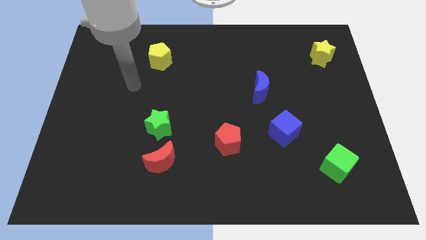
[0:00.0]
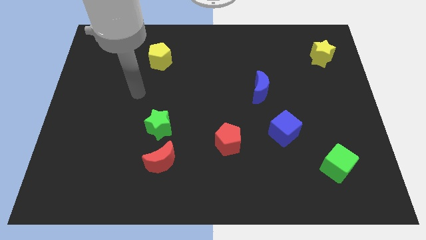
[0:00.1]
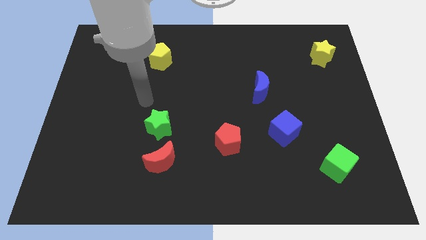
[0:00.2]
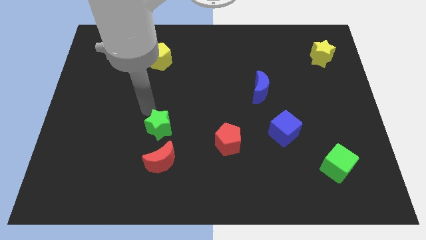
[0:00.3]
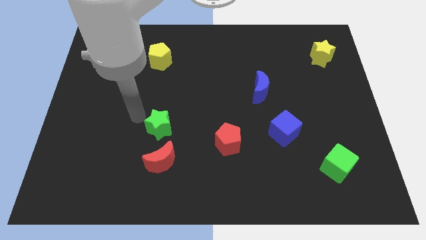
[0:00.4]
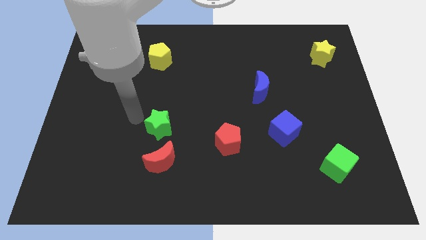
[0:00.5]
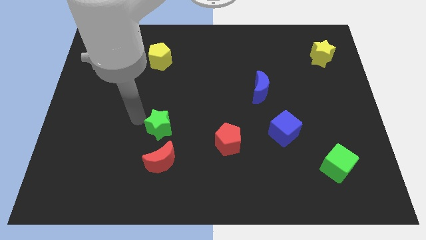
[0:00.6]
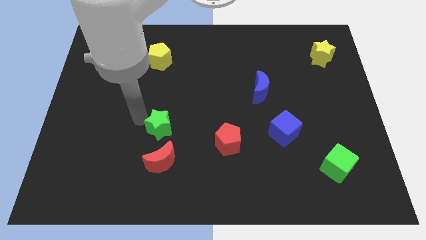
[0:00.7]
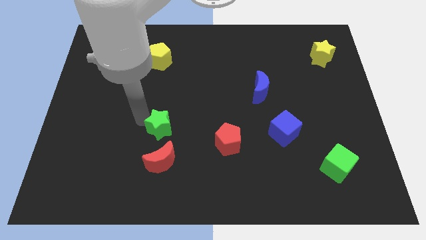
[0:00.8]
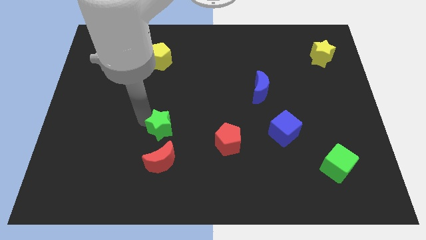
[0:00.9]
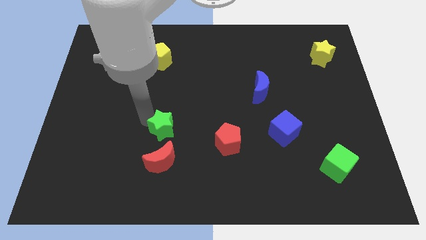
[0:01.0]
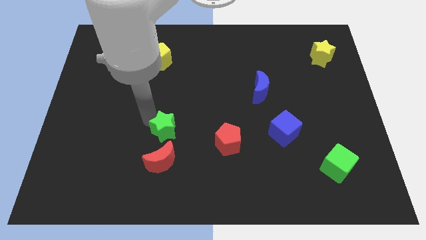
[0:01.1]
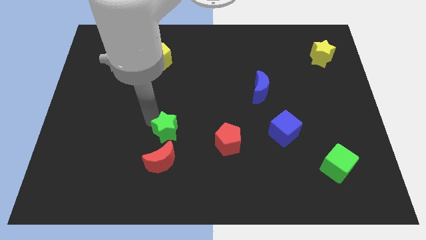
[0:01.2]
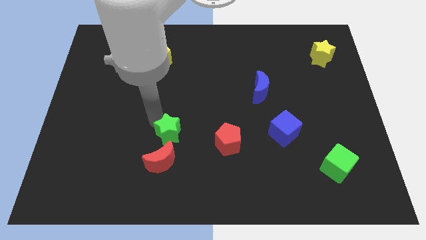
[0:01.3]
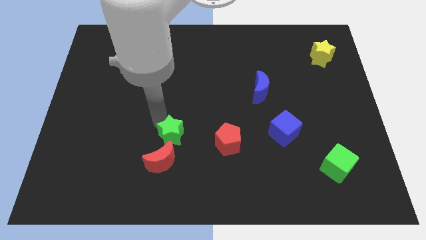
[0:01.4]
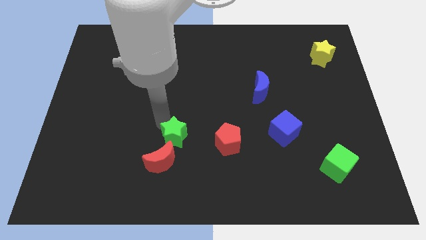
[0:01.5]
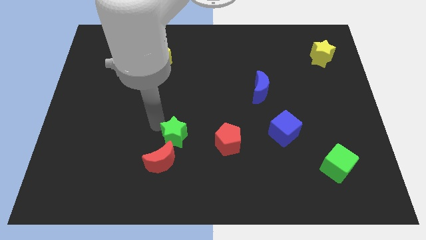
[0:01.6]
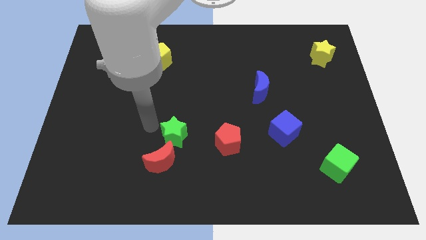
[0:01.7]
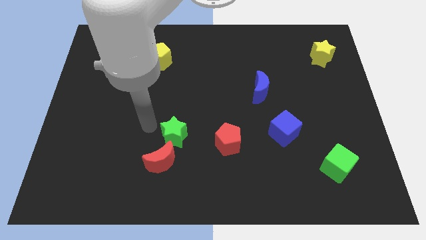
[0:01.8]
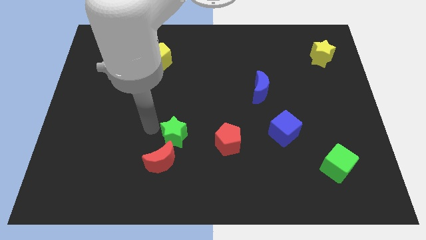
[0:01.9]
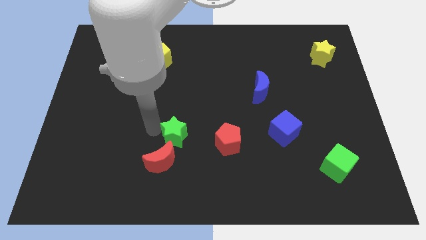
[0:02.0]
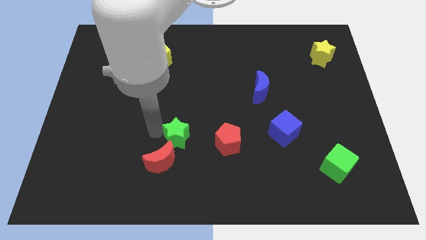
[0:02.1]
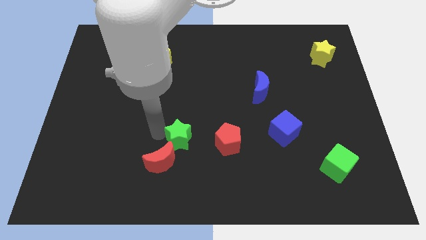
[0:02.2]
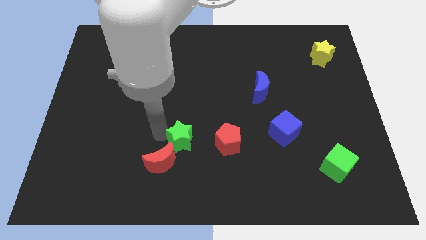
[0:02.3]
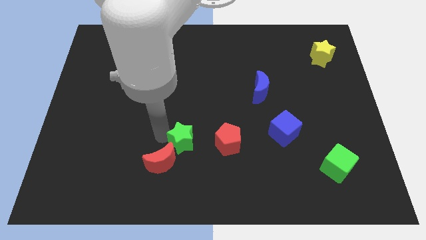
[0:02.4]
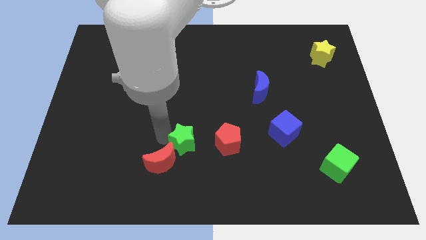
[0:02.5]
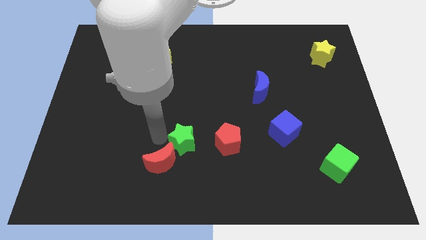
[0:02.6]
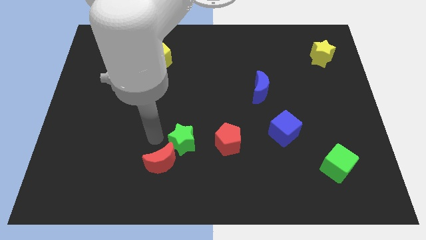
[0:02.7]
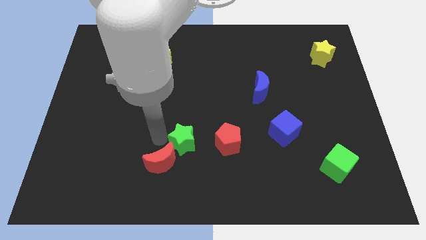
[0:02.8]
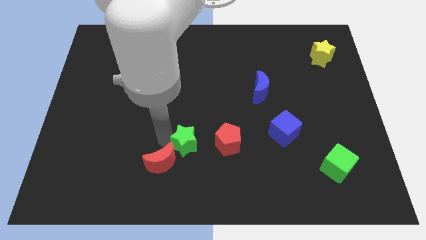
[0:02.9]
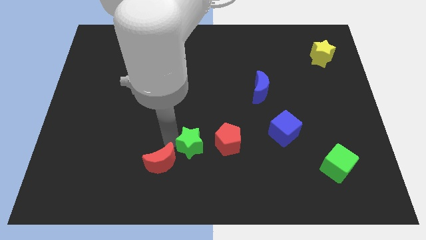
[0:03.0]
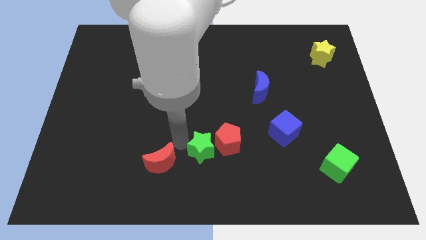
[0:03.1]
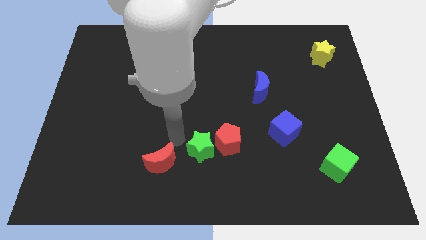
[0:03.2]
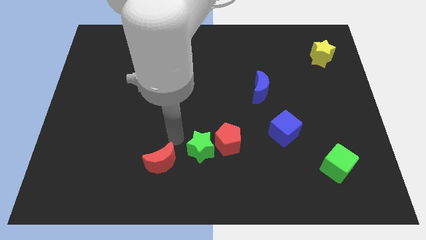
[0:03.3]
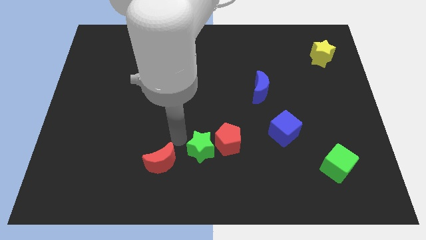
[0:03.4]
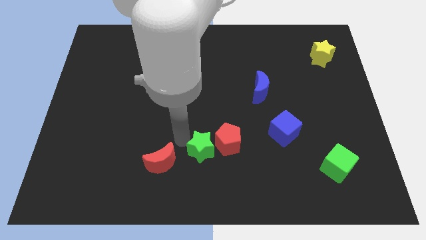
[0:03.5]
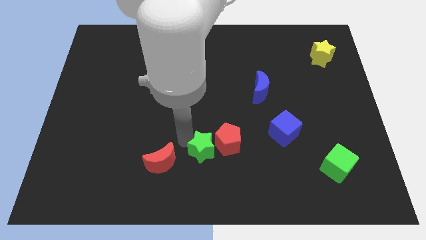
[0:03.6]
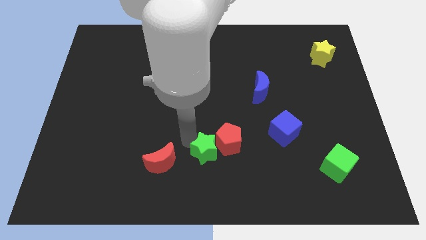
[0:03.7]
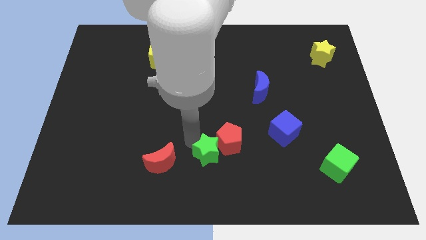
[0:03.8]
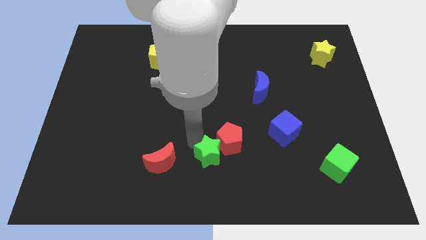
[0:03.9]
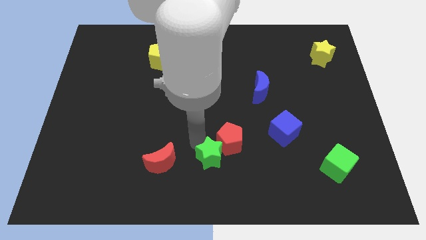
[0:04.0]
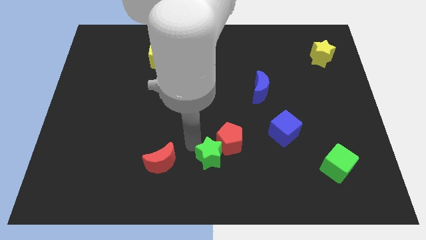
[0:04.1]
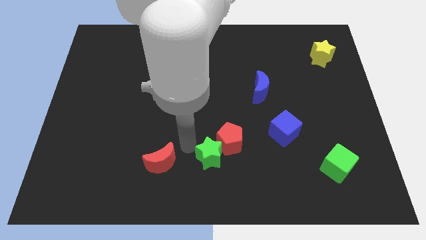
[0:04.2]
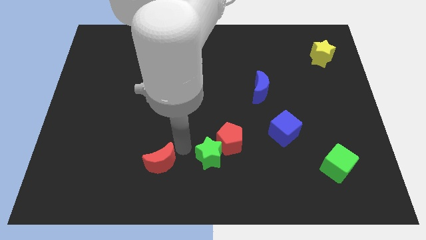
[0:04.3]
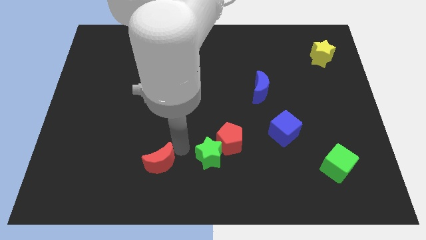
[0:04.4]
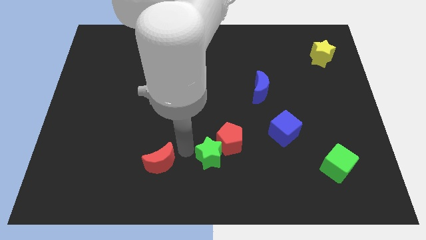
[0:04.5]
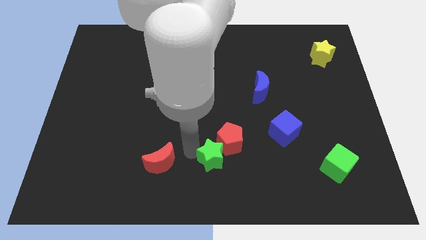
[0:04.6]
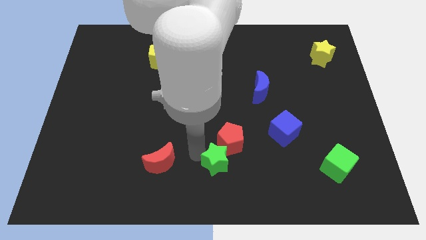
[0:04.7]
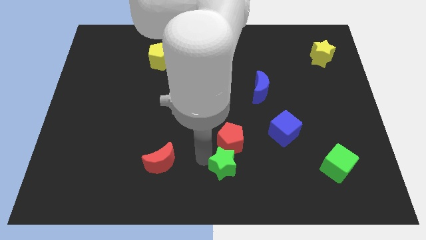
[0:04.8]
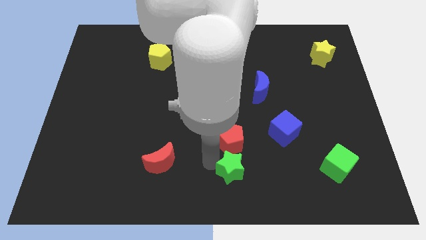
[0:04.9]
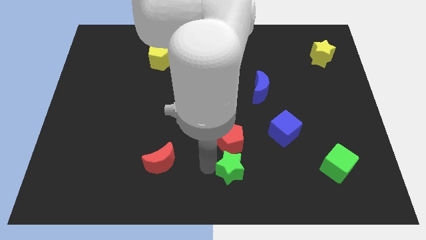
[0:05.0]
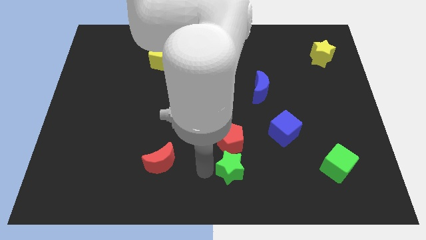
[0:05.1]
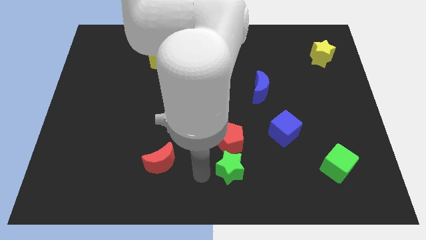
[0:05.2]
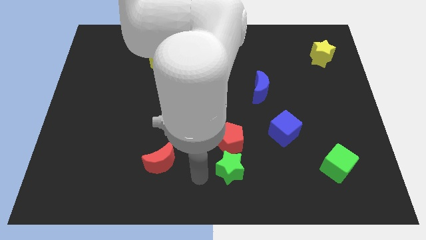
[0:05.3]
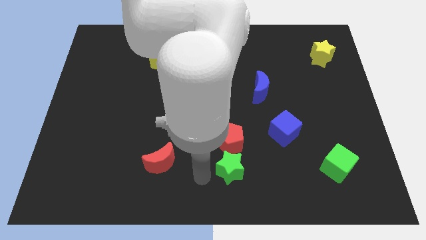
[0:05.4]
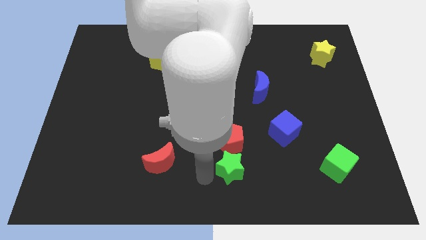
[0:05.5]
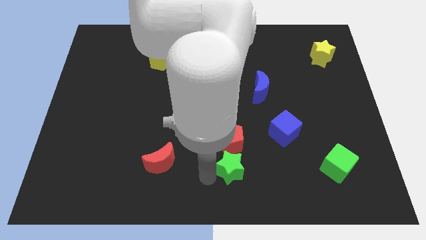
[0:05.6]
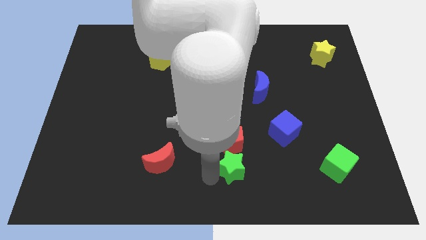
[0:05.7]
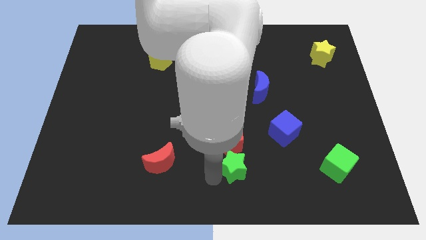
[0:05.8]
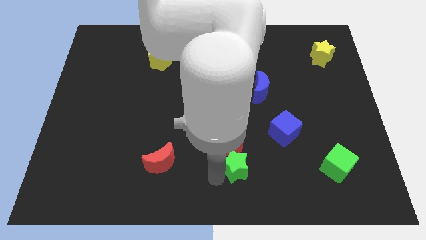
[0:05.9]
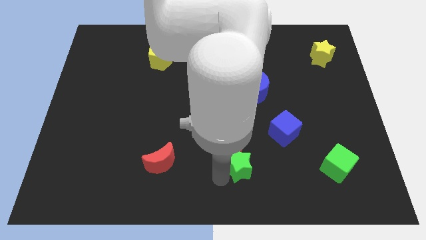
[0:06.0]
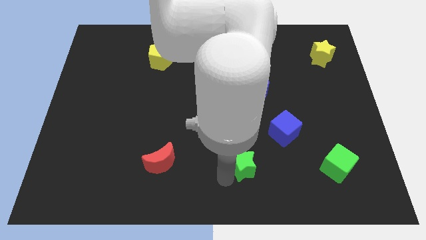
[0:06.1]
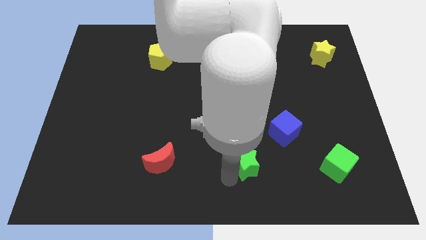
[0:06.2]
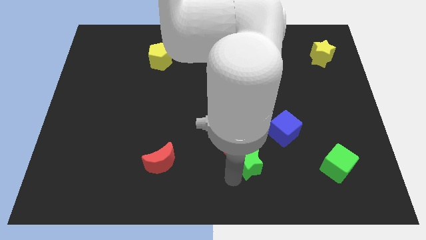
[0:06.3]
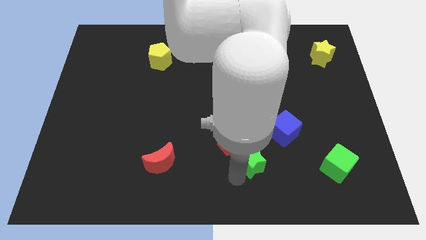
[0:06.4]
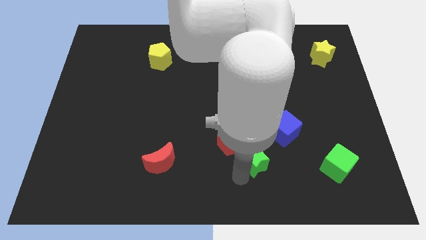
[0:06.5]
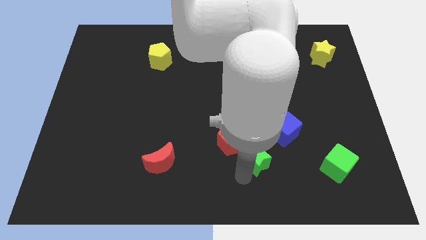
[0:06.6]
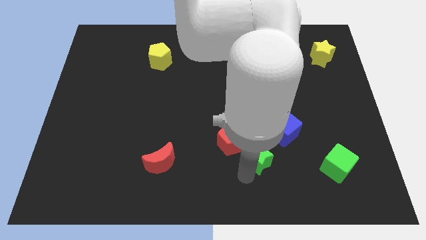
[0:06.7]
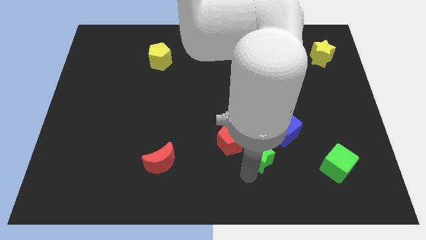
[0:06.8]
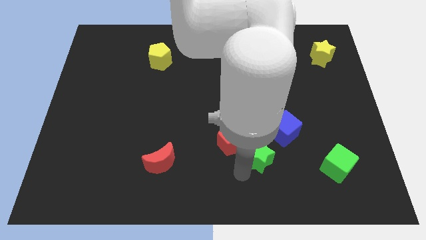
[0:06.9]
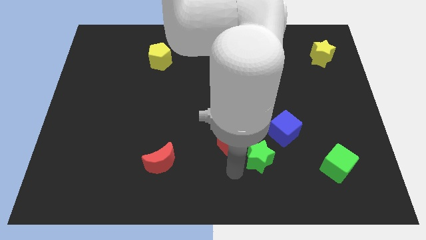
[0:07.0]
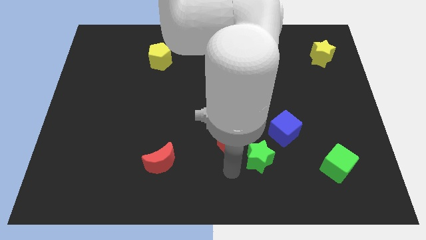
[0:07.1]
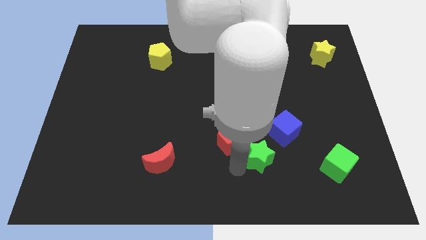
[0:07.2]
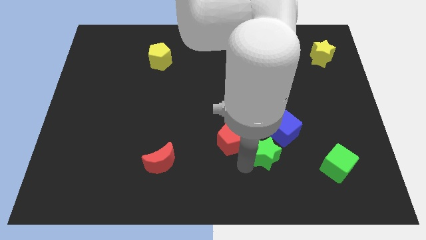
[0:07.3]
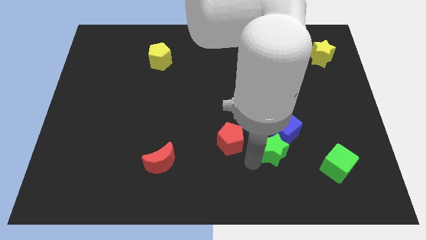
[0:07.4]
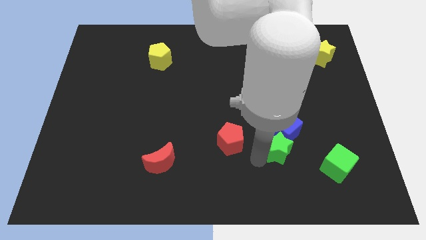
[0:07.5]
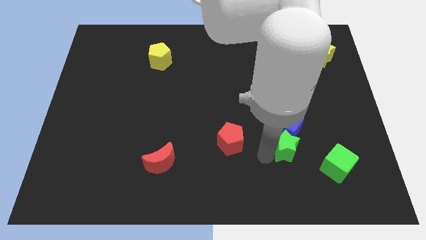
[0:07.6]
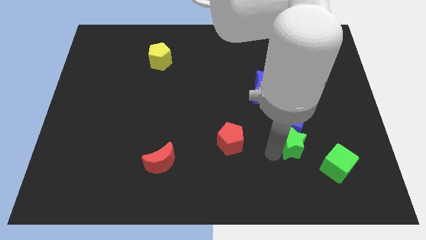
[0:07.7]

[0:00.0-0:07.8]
slide the green star to the top left of the green cube

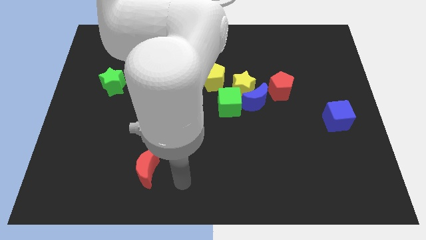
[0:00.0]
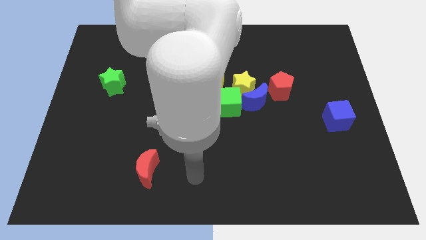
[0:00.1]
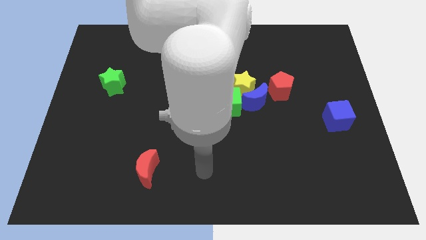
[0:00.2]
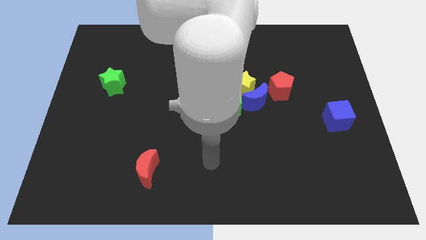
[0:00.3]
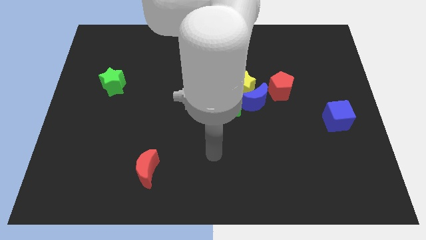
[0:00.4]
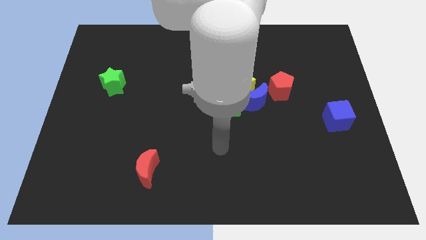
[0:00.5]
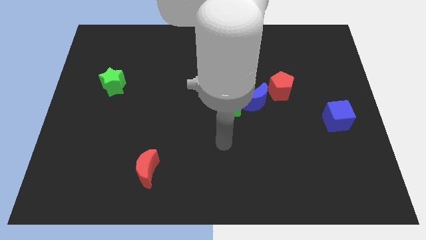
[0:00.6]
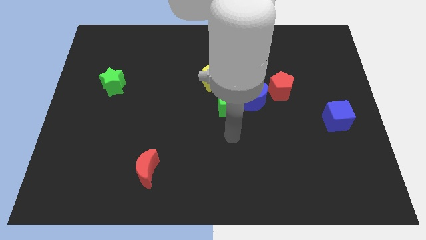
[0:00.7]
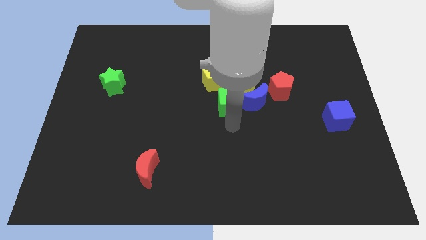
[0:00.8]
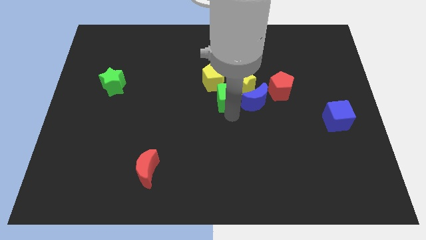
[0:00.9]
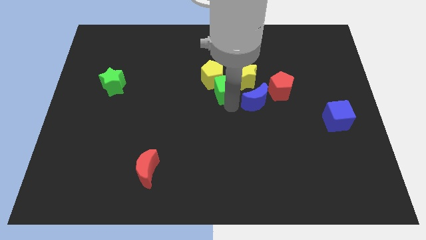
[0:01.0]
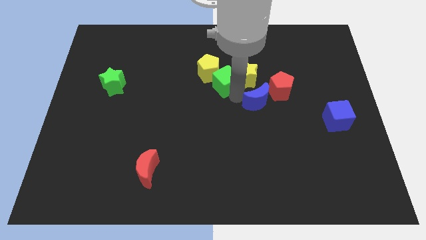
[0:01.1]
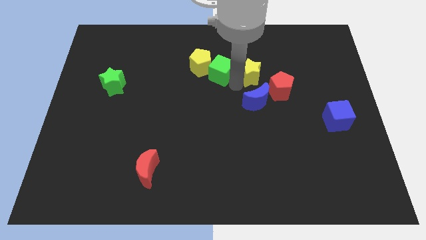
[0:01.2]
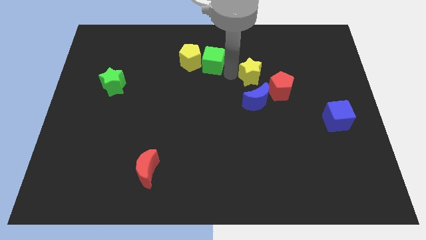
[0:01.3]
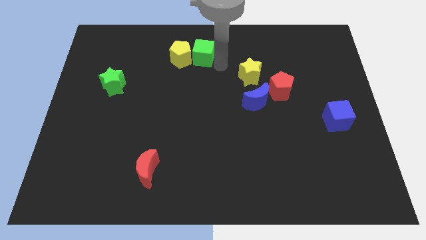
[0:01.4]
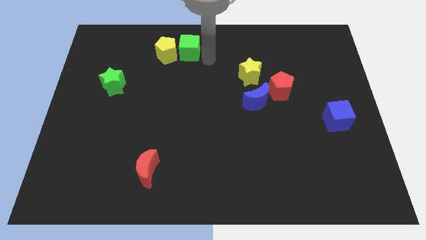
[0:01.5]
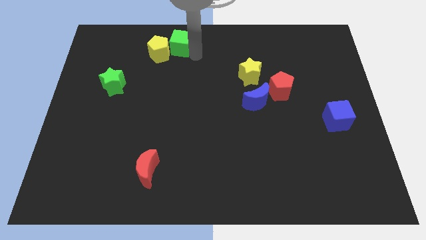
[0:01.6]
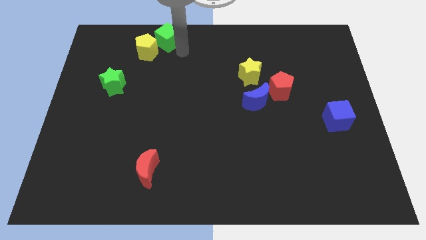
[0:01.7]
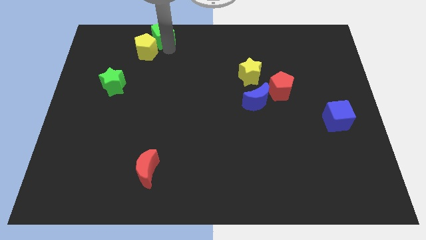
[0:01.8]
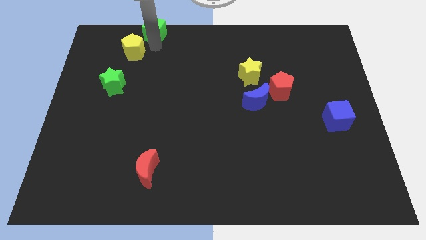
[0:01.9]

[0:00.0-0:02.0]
slide the yellow pentagon to the top of the green star
